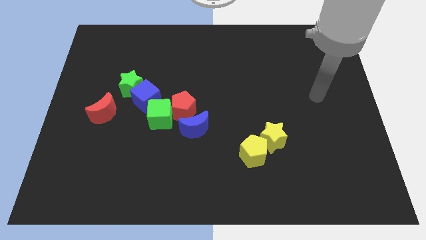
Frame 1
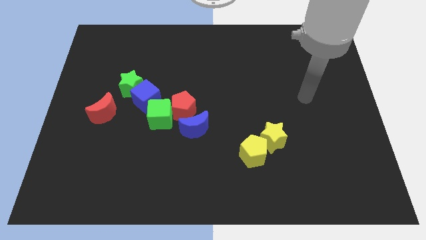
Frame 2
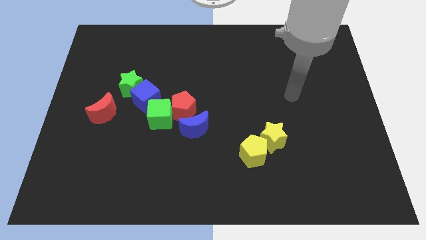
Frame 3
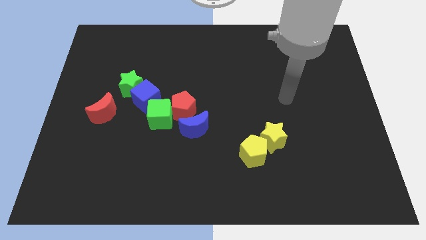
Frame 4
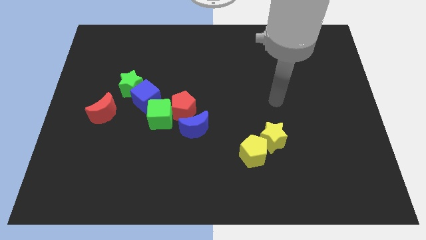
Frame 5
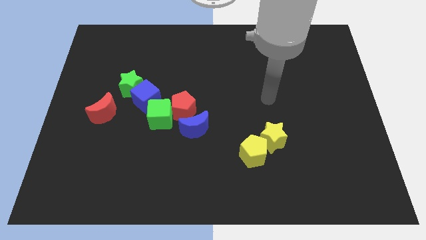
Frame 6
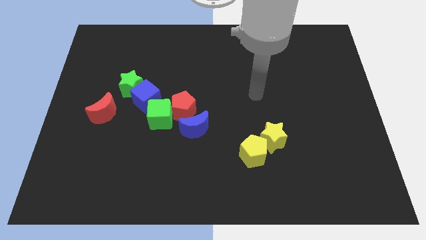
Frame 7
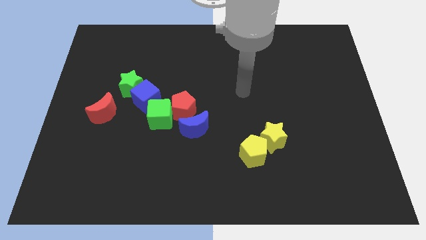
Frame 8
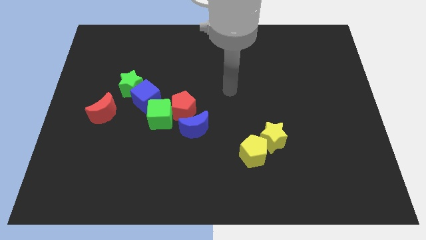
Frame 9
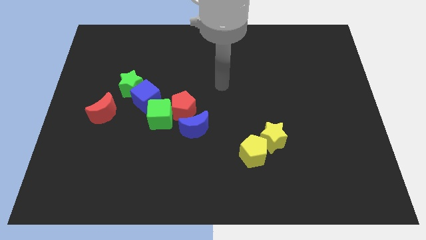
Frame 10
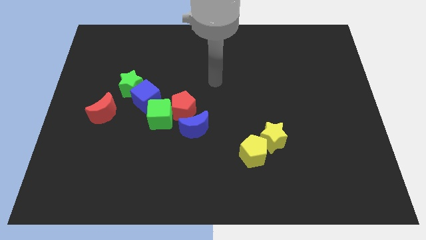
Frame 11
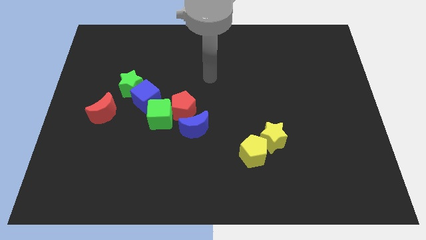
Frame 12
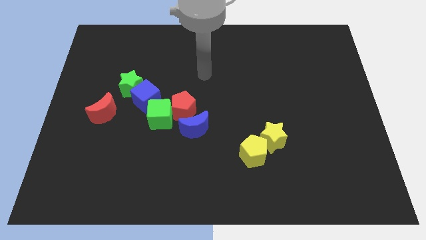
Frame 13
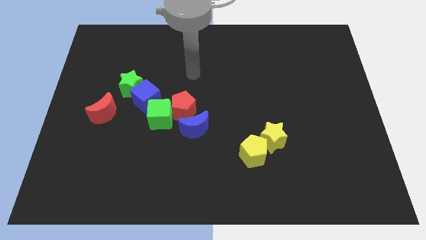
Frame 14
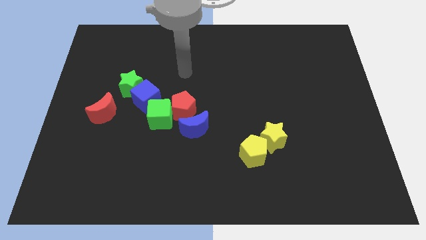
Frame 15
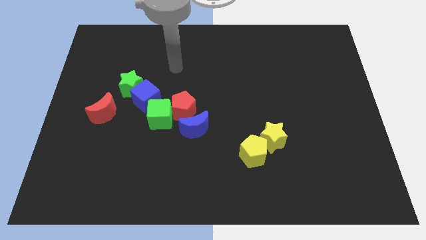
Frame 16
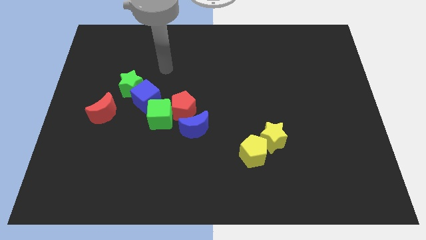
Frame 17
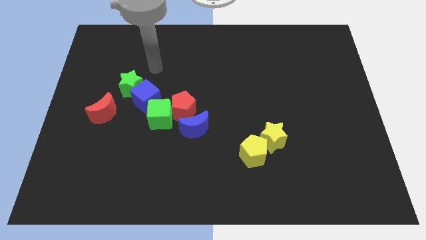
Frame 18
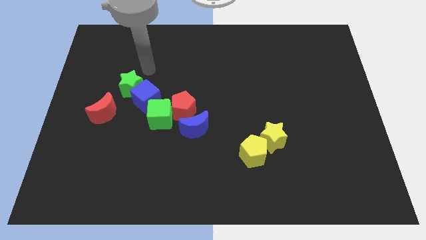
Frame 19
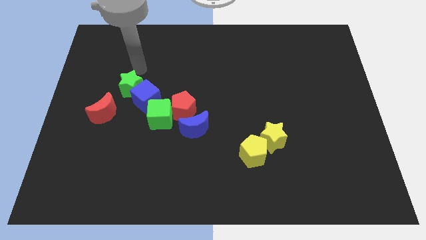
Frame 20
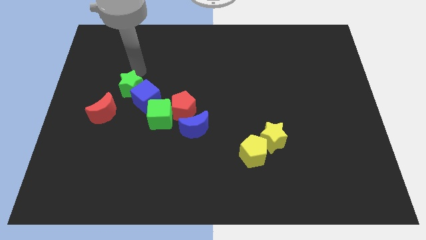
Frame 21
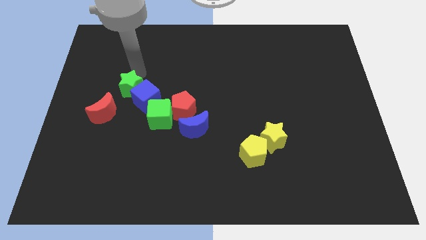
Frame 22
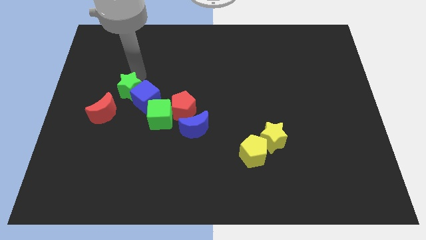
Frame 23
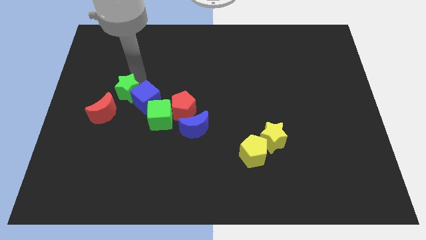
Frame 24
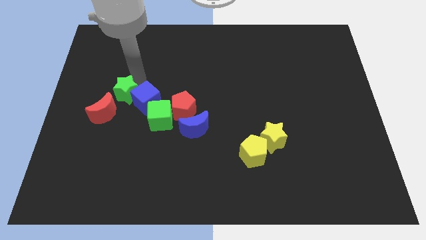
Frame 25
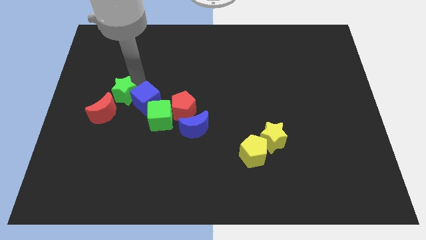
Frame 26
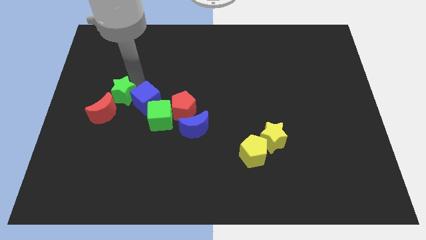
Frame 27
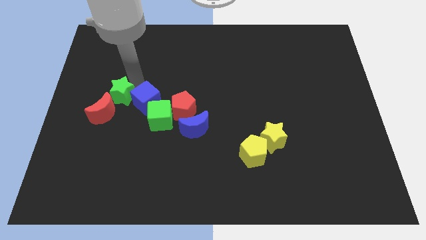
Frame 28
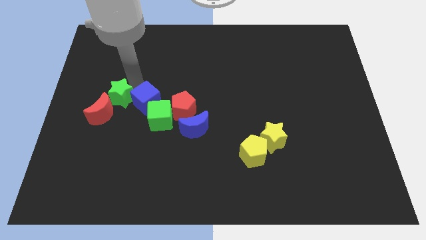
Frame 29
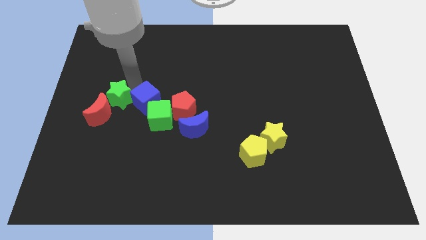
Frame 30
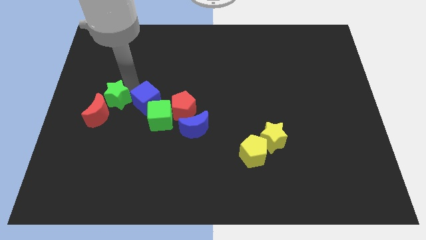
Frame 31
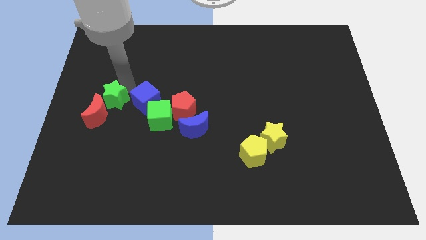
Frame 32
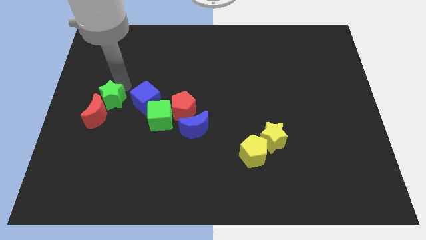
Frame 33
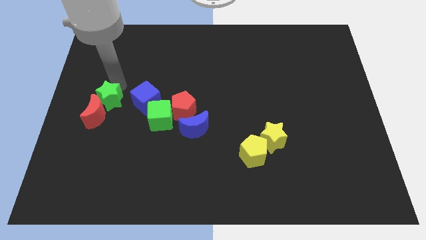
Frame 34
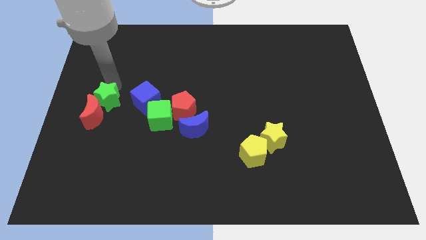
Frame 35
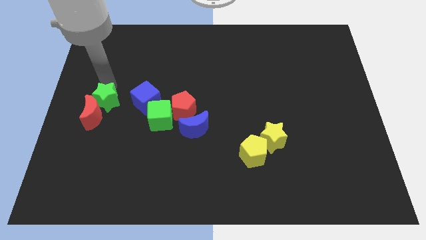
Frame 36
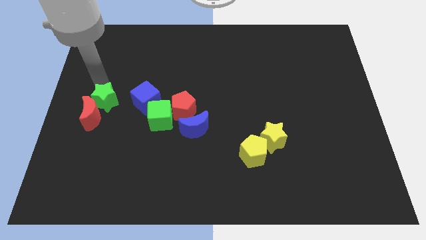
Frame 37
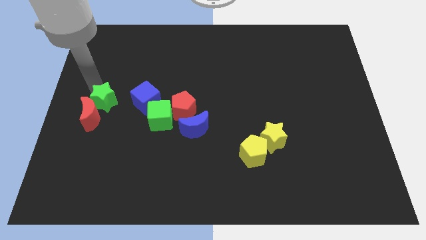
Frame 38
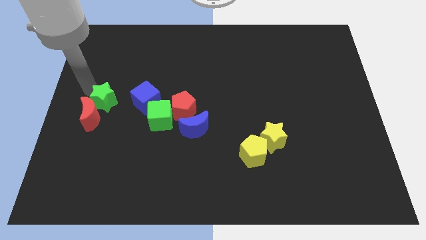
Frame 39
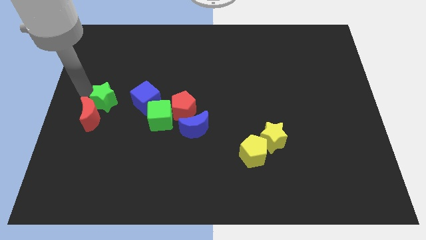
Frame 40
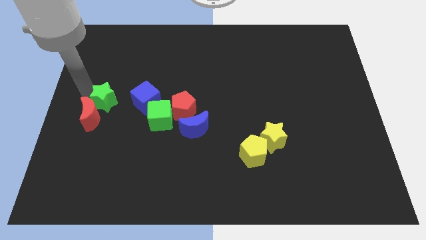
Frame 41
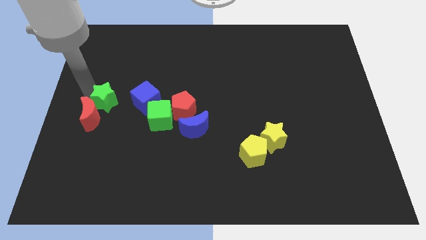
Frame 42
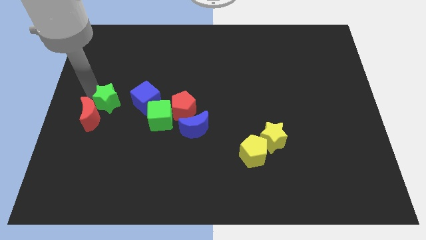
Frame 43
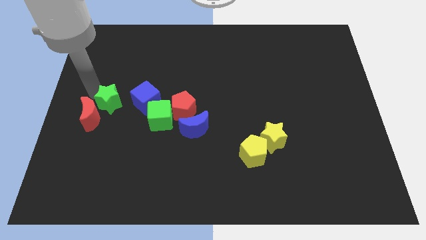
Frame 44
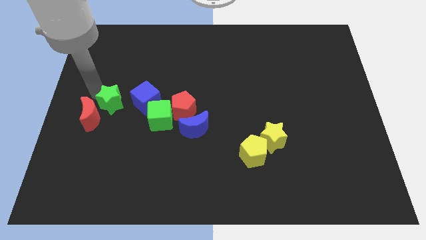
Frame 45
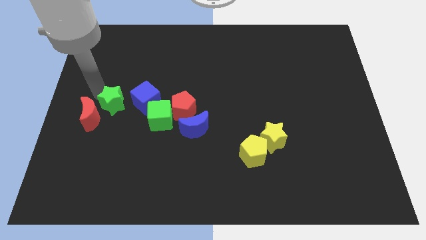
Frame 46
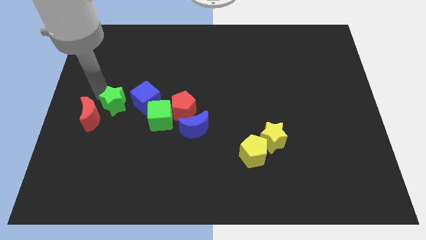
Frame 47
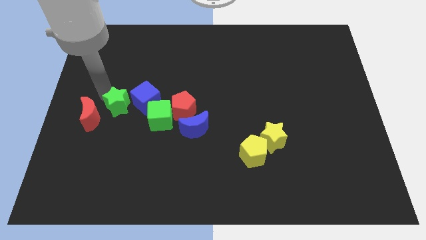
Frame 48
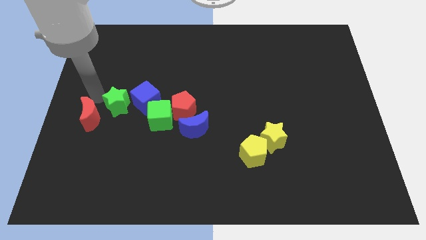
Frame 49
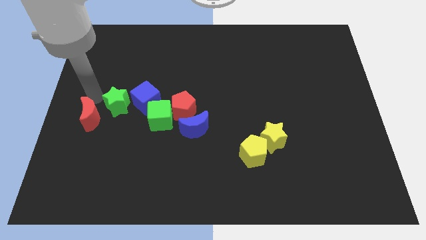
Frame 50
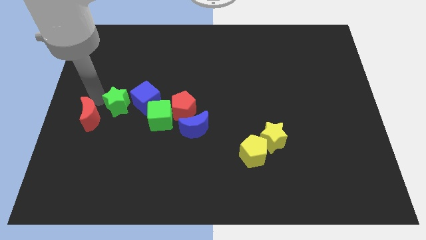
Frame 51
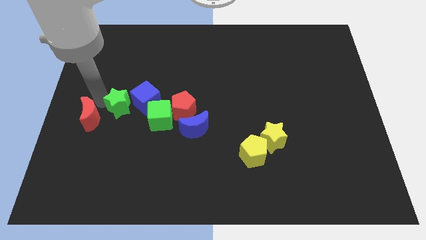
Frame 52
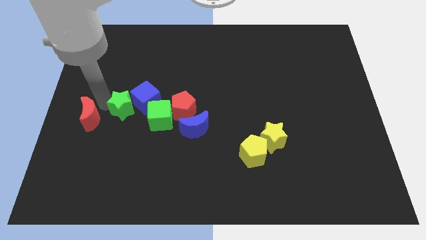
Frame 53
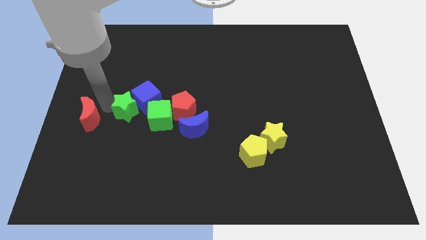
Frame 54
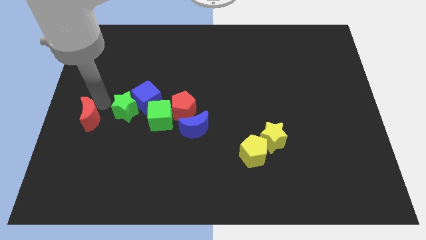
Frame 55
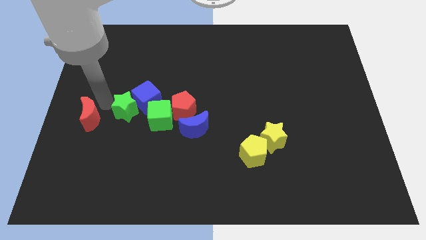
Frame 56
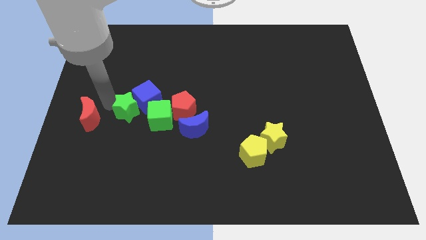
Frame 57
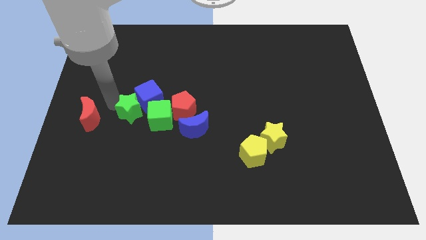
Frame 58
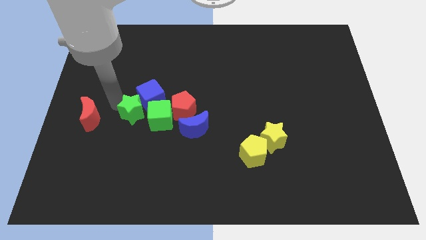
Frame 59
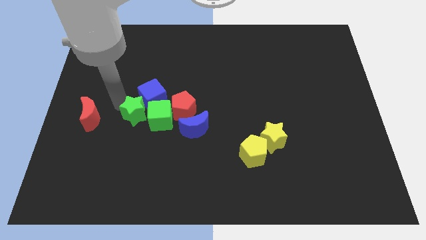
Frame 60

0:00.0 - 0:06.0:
push the green star next to the green cube

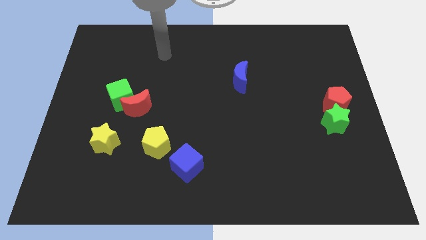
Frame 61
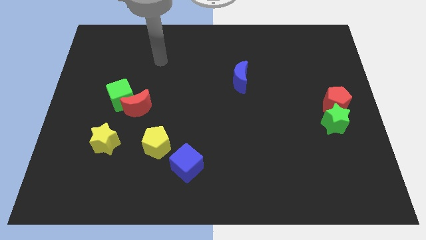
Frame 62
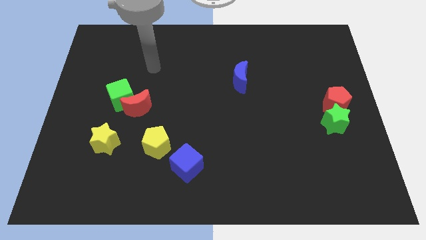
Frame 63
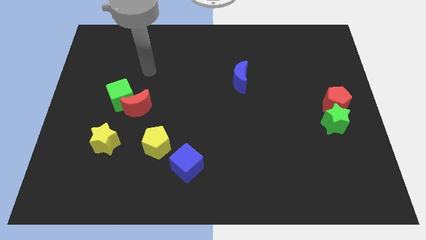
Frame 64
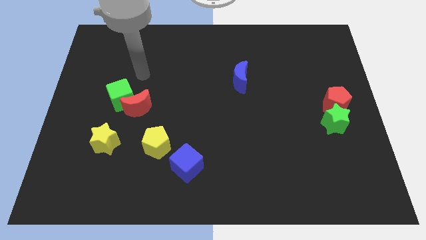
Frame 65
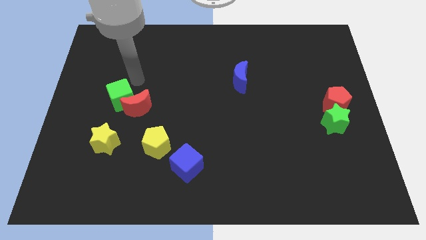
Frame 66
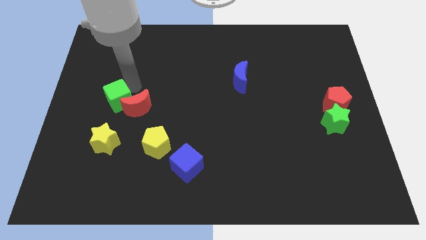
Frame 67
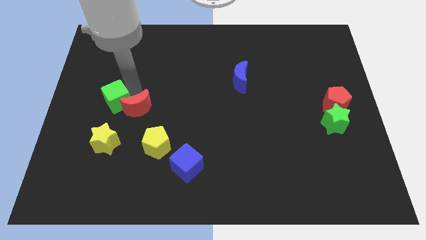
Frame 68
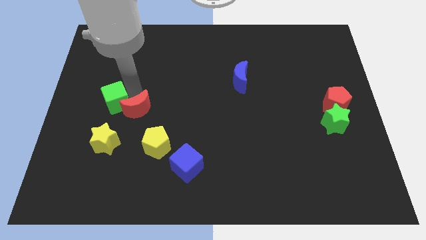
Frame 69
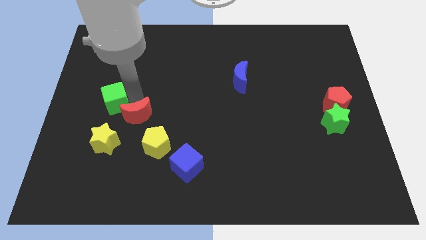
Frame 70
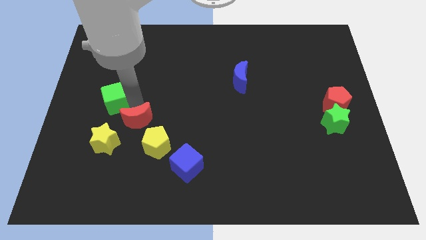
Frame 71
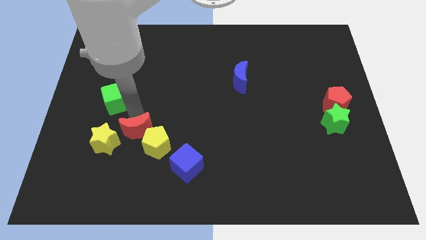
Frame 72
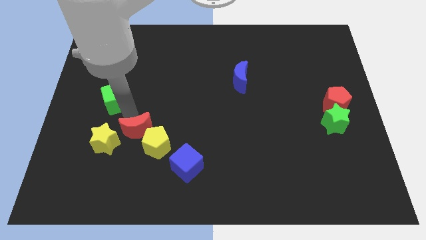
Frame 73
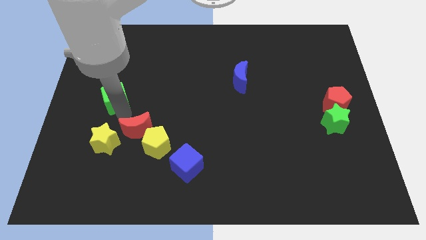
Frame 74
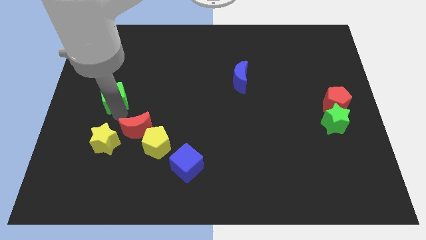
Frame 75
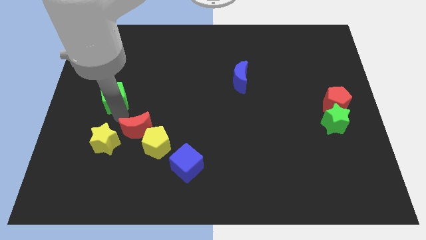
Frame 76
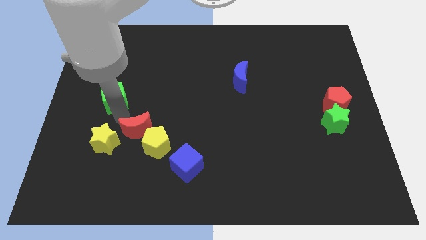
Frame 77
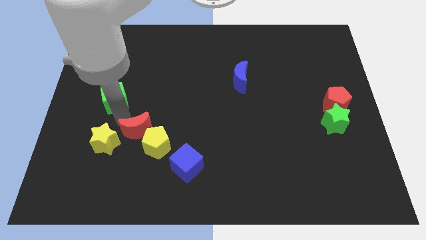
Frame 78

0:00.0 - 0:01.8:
move the red moon next to the yellow pentagon
